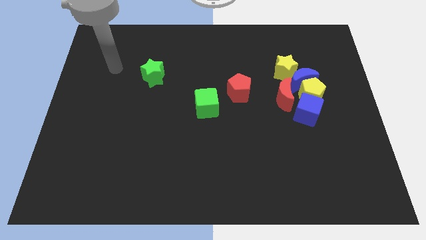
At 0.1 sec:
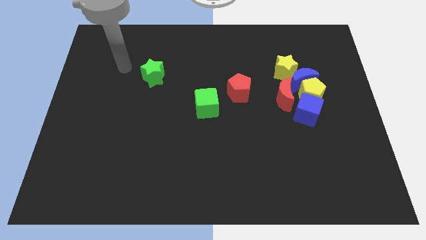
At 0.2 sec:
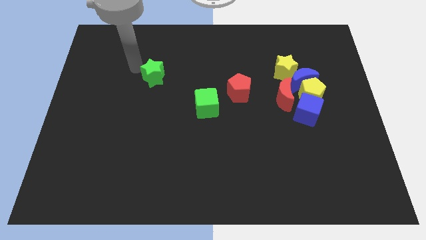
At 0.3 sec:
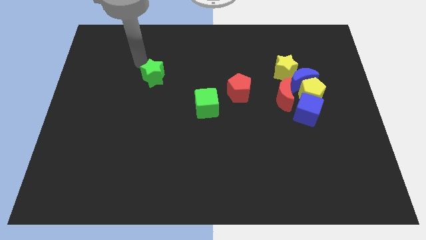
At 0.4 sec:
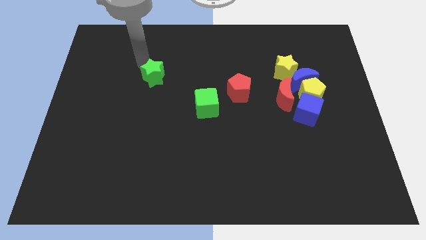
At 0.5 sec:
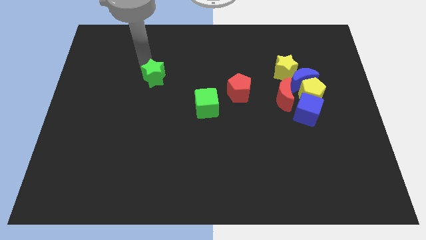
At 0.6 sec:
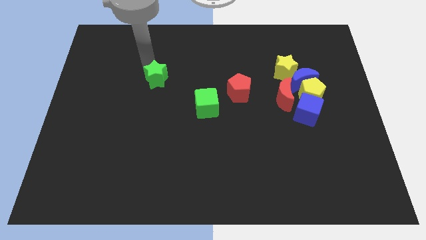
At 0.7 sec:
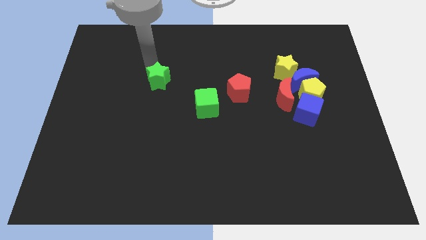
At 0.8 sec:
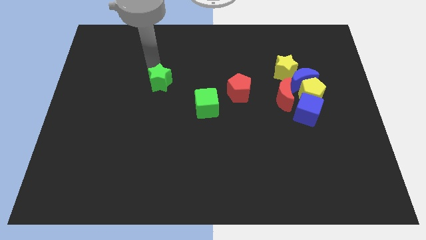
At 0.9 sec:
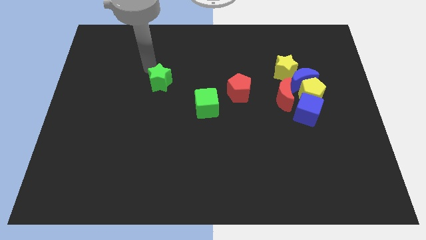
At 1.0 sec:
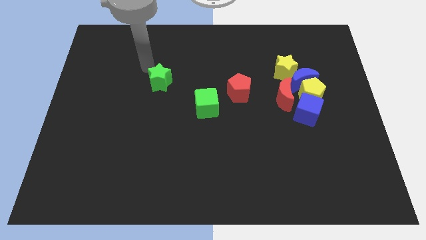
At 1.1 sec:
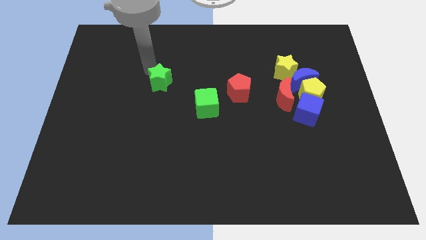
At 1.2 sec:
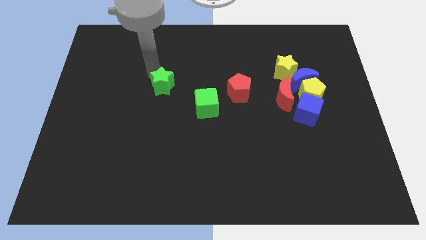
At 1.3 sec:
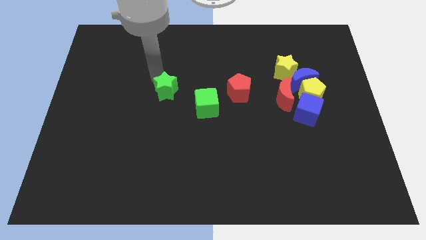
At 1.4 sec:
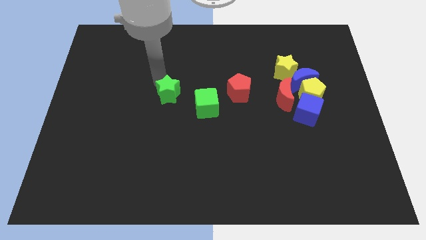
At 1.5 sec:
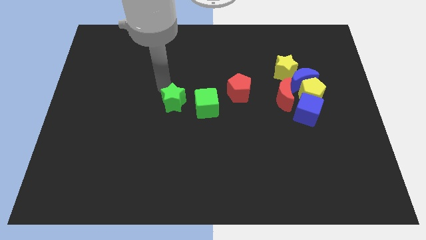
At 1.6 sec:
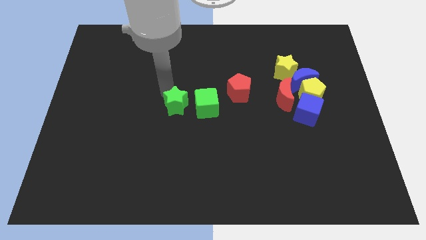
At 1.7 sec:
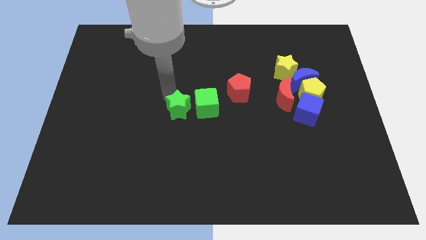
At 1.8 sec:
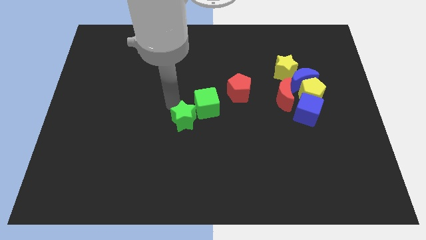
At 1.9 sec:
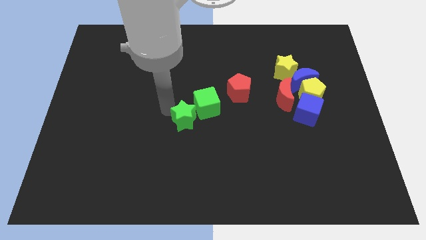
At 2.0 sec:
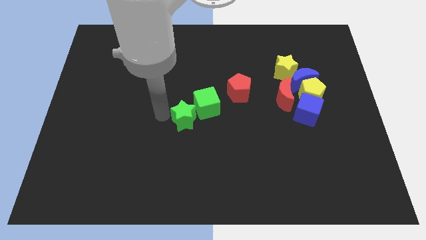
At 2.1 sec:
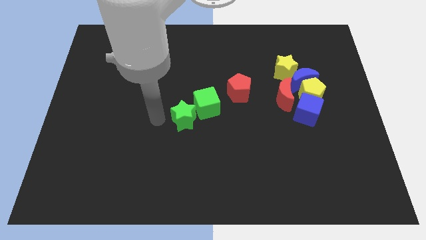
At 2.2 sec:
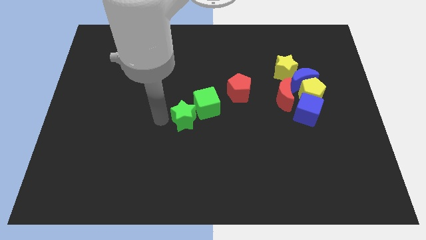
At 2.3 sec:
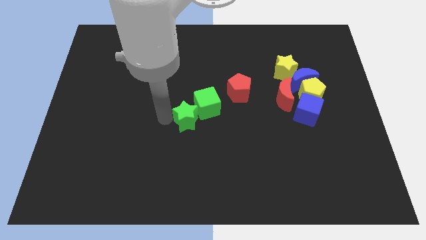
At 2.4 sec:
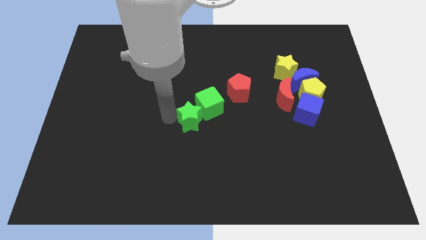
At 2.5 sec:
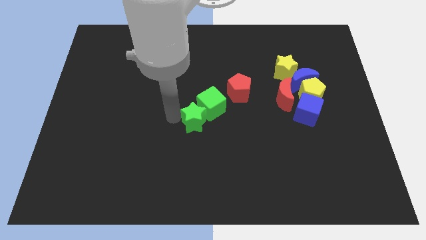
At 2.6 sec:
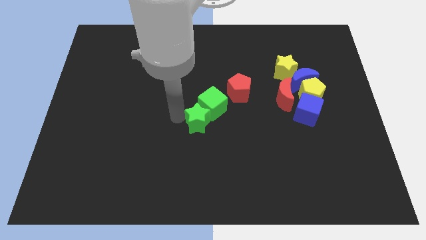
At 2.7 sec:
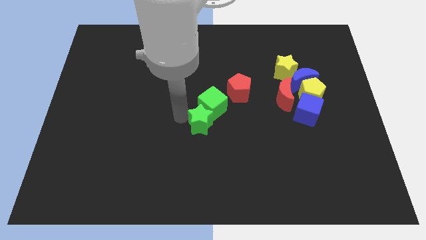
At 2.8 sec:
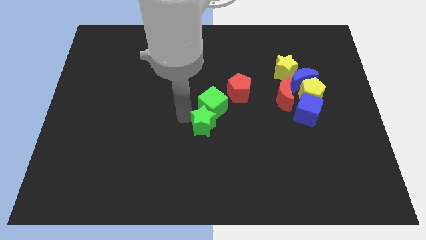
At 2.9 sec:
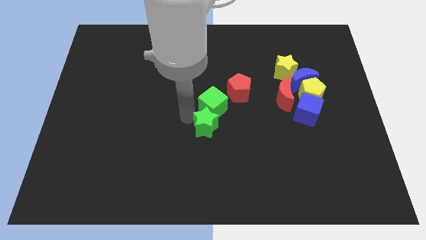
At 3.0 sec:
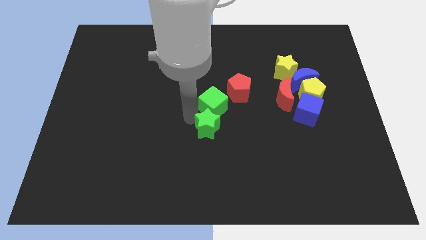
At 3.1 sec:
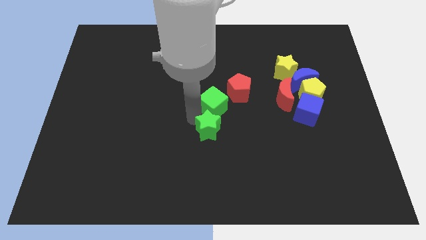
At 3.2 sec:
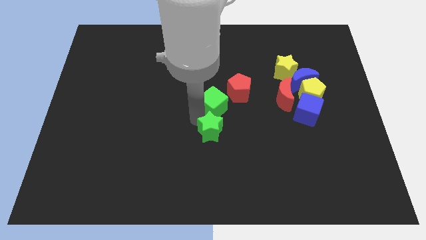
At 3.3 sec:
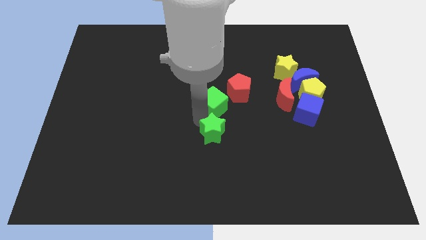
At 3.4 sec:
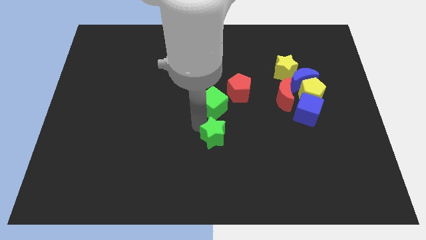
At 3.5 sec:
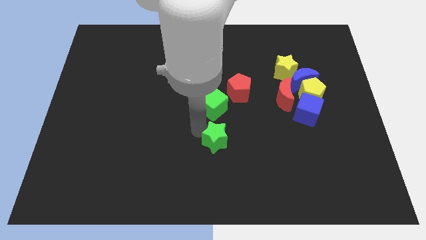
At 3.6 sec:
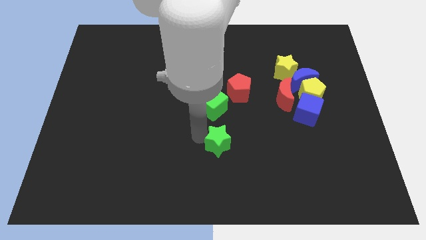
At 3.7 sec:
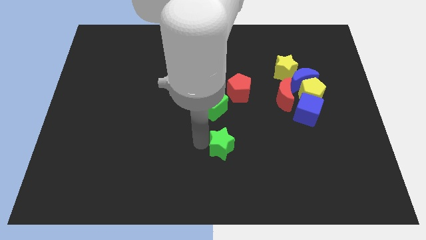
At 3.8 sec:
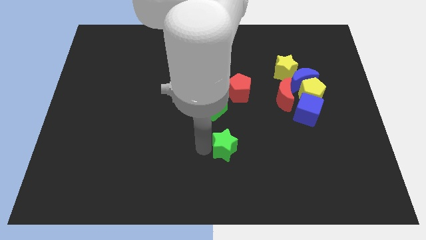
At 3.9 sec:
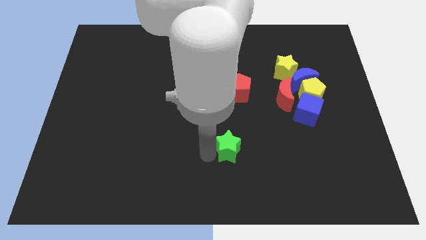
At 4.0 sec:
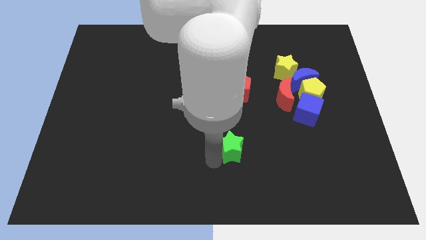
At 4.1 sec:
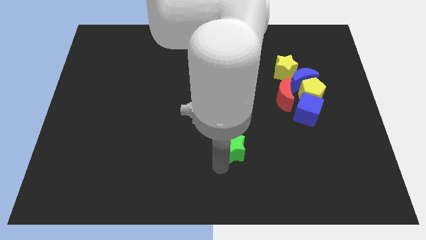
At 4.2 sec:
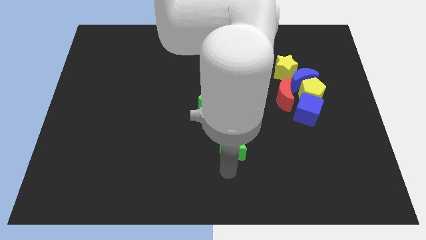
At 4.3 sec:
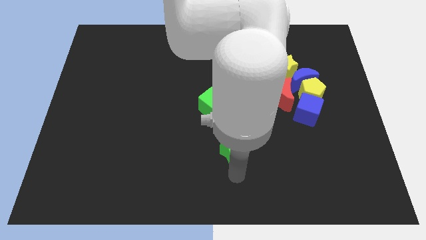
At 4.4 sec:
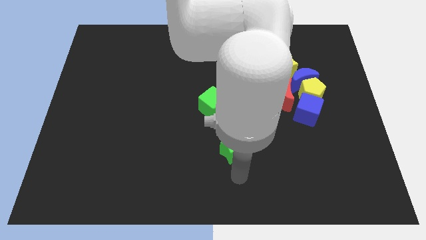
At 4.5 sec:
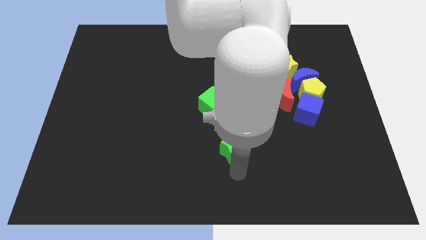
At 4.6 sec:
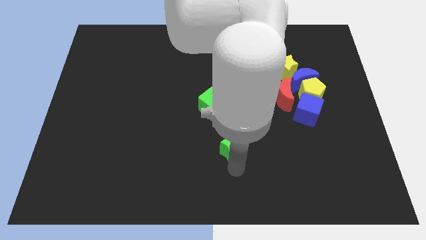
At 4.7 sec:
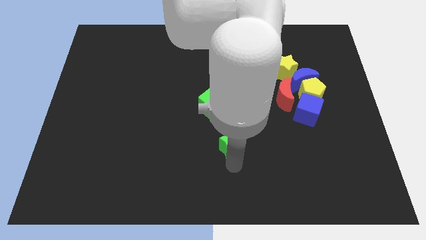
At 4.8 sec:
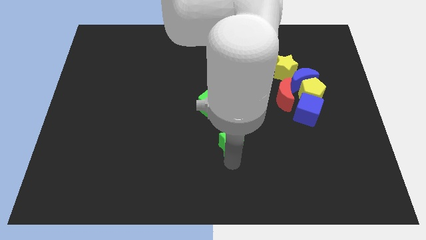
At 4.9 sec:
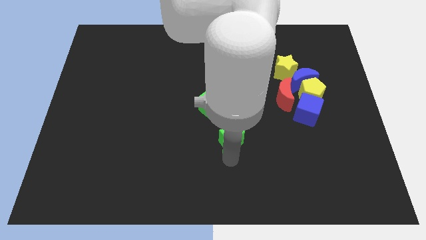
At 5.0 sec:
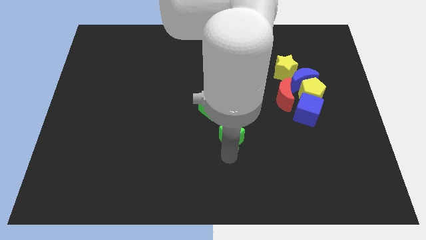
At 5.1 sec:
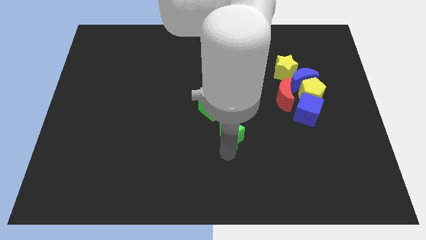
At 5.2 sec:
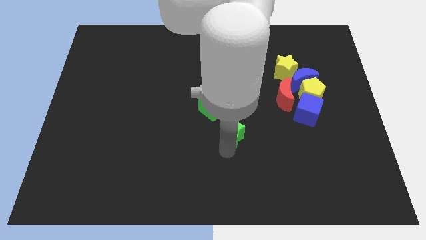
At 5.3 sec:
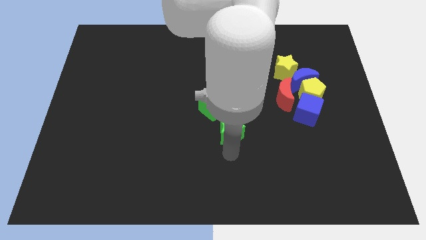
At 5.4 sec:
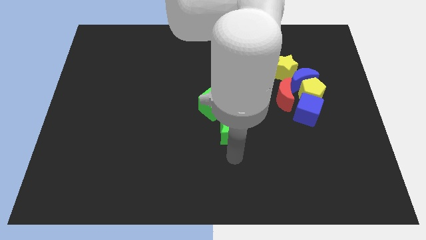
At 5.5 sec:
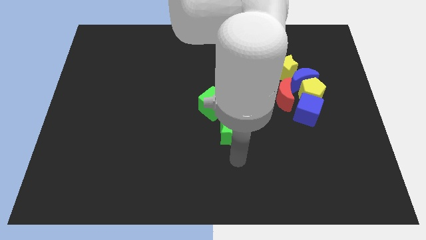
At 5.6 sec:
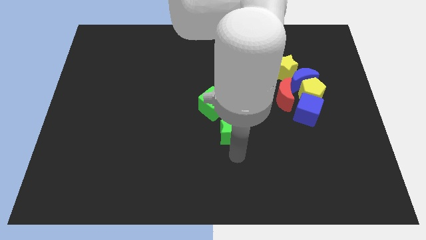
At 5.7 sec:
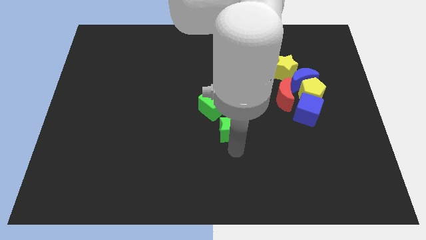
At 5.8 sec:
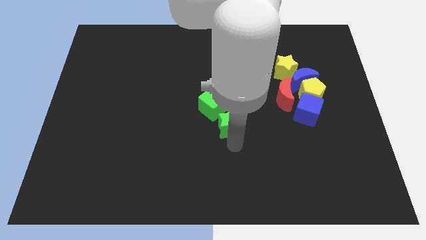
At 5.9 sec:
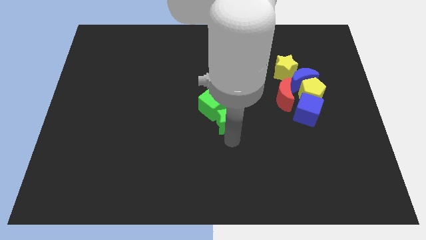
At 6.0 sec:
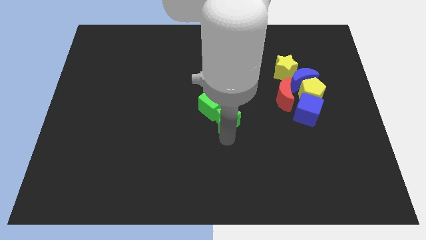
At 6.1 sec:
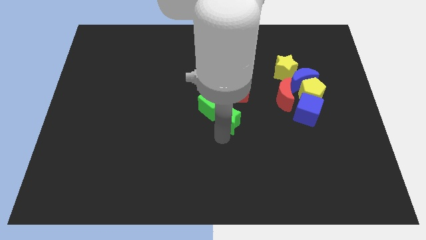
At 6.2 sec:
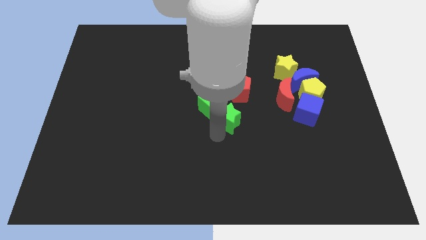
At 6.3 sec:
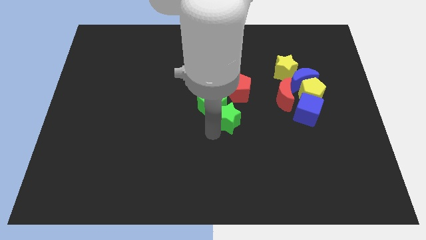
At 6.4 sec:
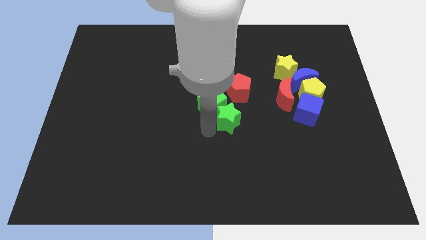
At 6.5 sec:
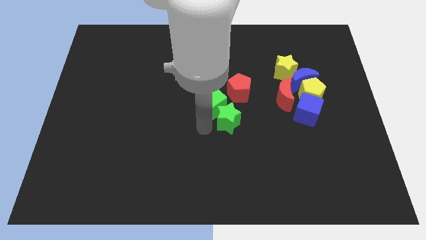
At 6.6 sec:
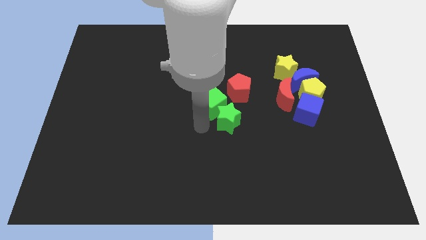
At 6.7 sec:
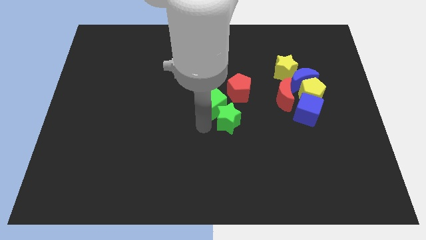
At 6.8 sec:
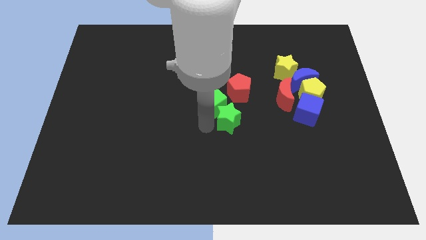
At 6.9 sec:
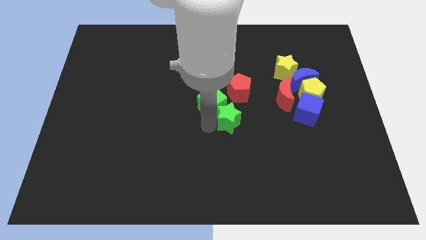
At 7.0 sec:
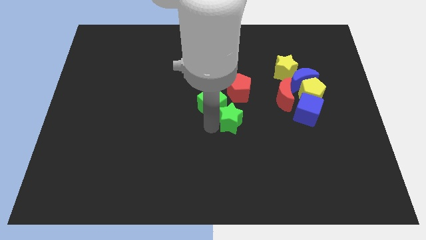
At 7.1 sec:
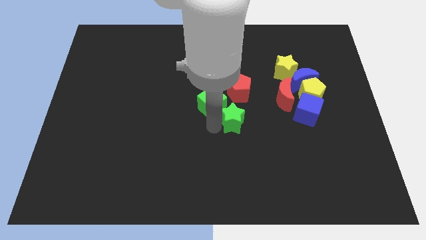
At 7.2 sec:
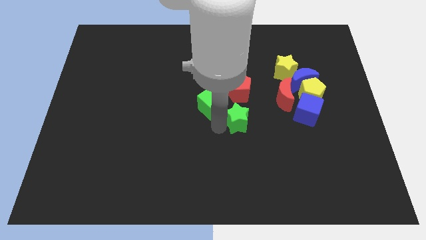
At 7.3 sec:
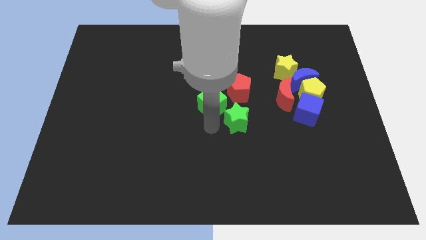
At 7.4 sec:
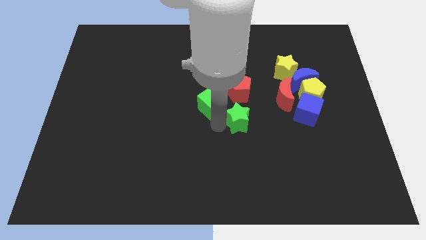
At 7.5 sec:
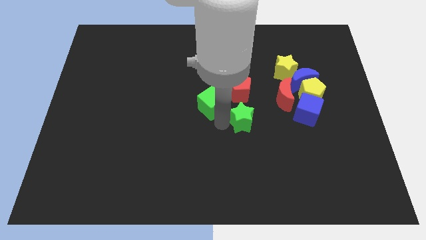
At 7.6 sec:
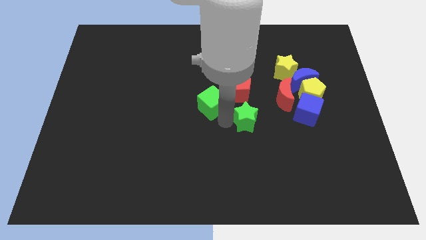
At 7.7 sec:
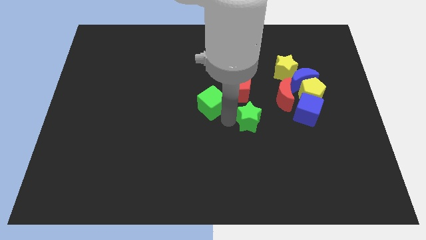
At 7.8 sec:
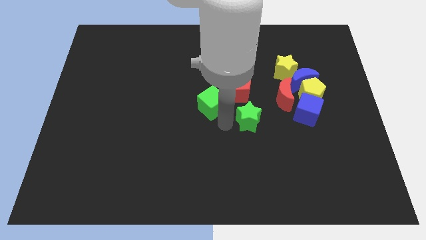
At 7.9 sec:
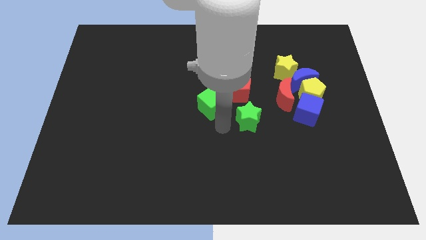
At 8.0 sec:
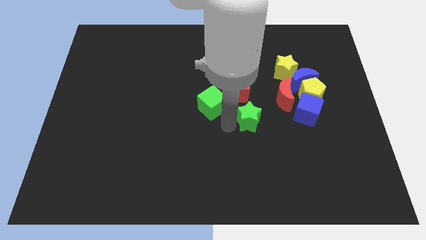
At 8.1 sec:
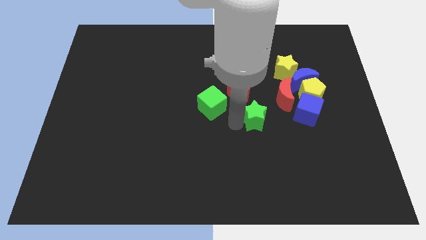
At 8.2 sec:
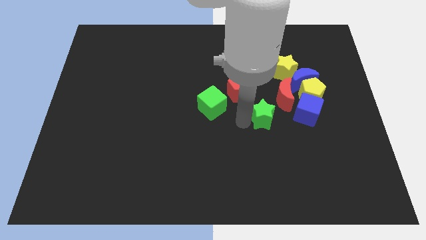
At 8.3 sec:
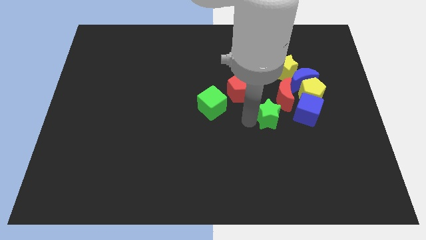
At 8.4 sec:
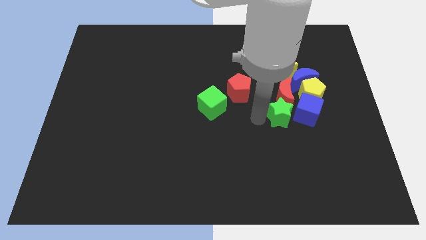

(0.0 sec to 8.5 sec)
put the green star next to the blue cube
